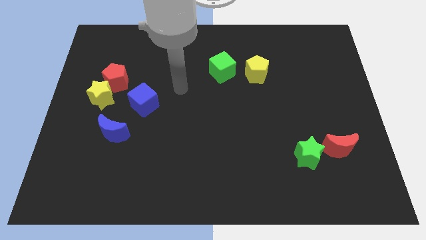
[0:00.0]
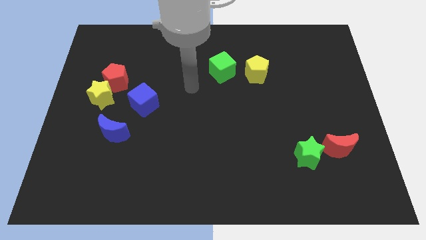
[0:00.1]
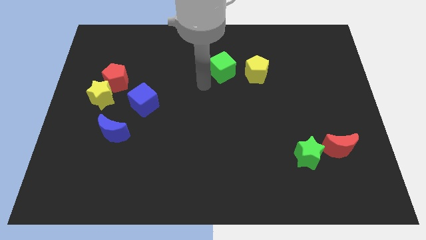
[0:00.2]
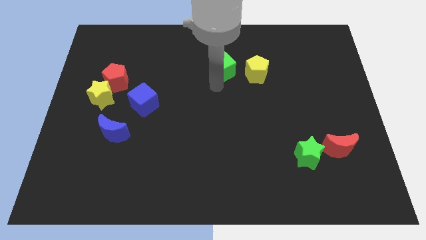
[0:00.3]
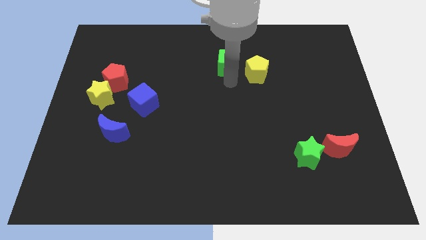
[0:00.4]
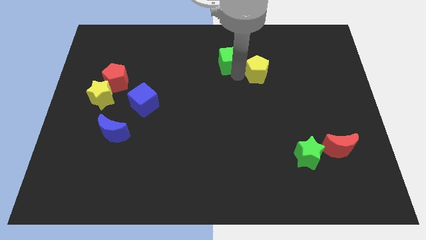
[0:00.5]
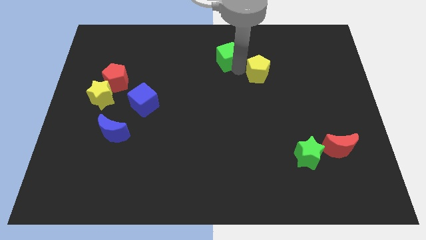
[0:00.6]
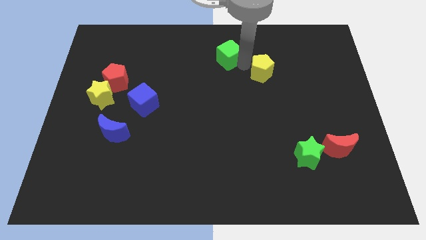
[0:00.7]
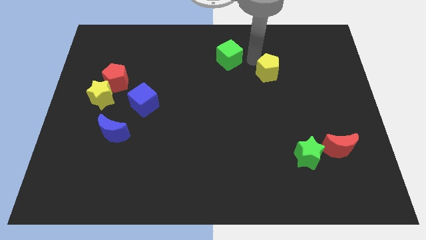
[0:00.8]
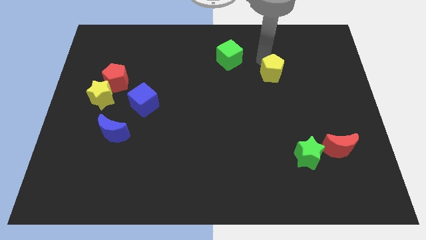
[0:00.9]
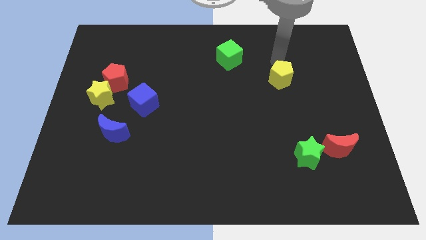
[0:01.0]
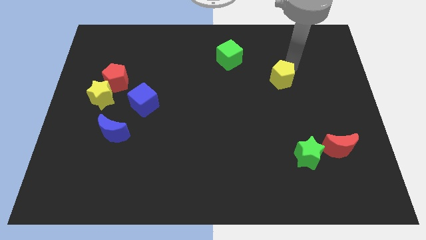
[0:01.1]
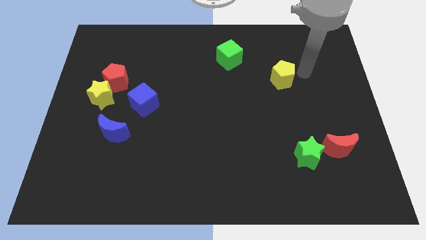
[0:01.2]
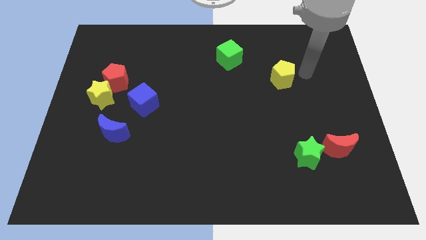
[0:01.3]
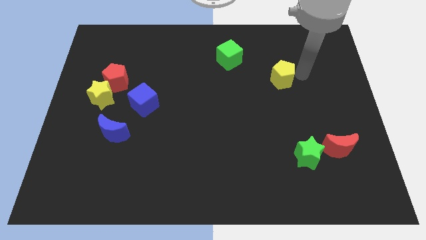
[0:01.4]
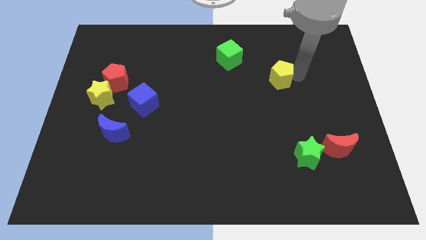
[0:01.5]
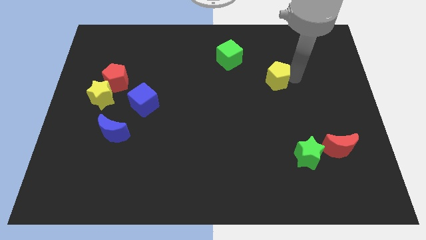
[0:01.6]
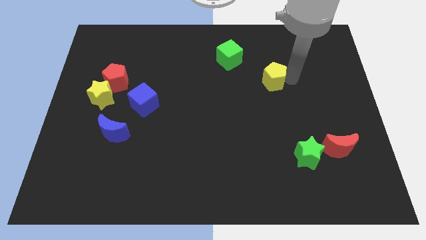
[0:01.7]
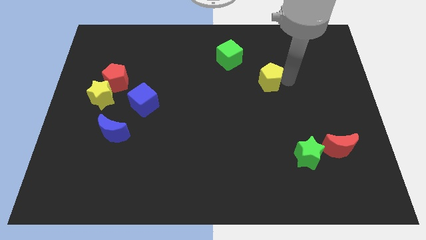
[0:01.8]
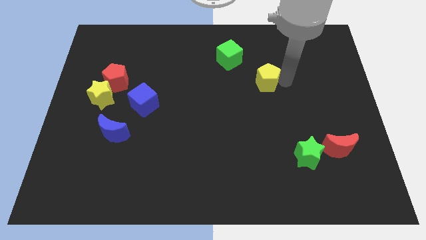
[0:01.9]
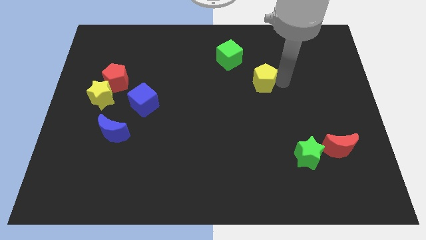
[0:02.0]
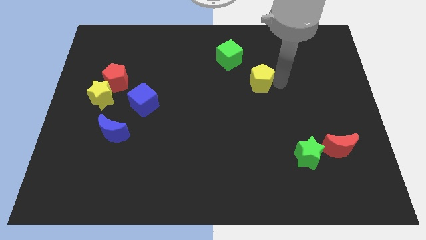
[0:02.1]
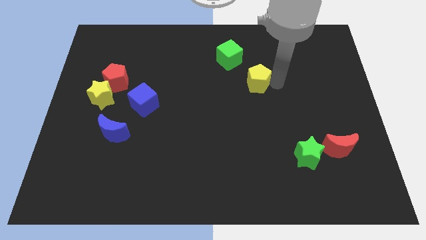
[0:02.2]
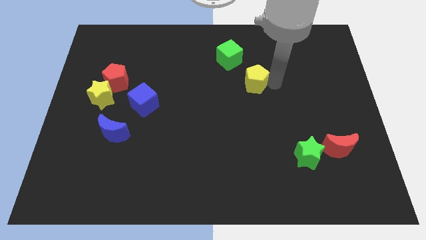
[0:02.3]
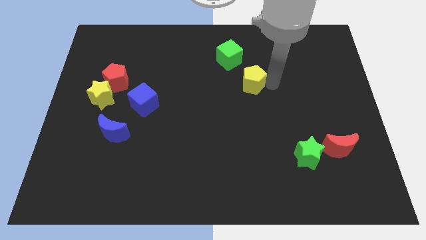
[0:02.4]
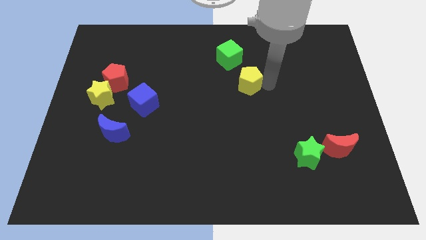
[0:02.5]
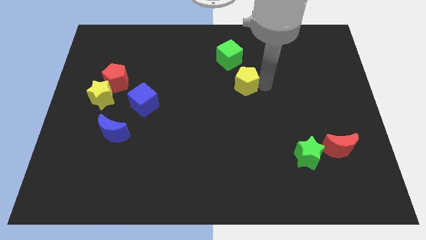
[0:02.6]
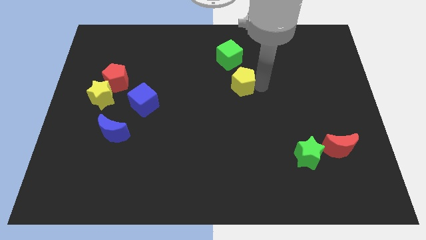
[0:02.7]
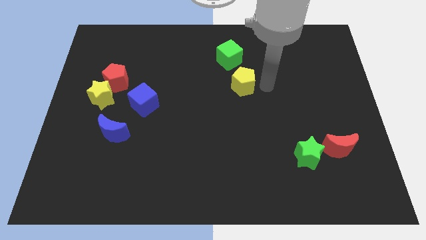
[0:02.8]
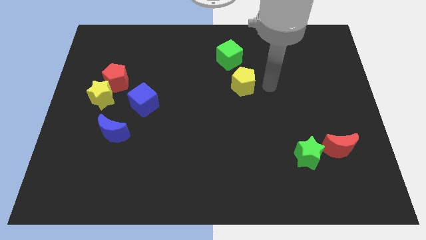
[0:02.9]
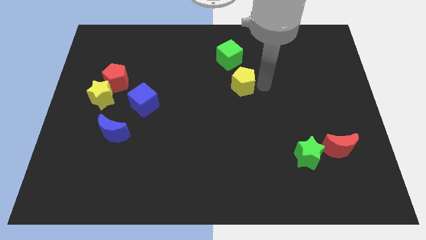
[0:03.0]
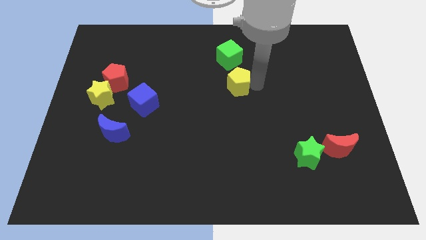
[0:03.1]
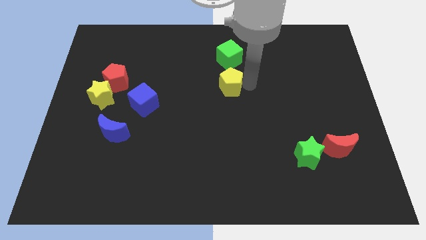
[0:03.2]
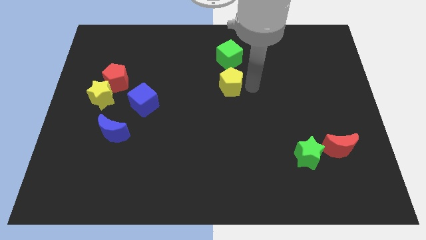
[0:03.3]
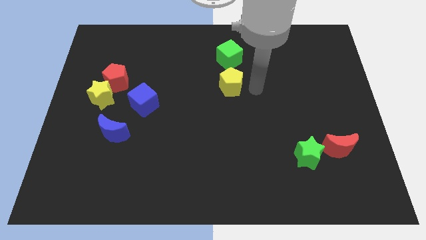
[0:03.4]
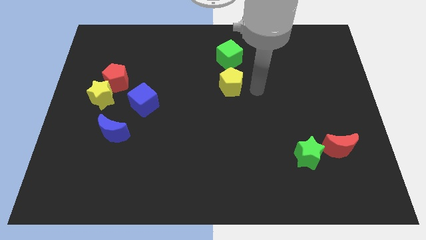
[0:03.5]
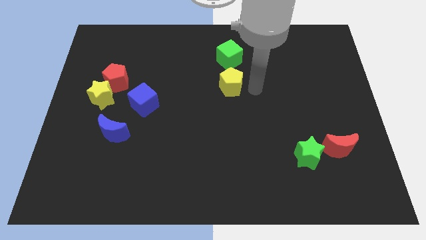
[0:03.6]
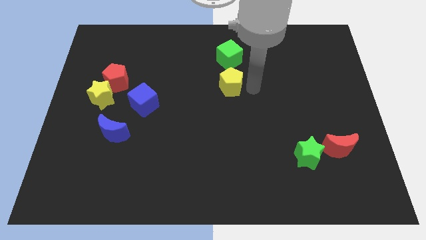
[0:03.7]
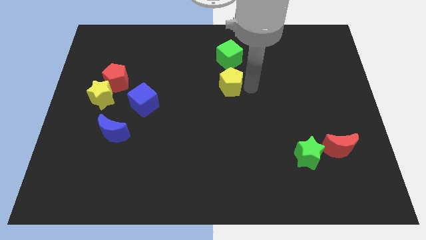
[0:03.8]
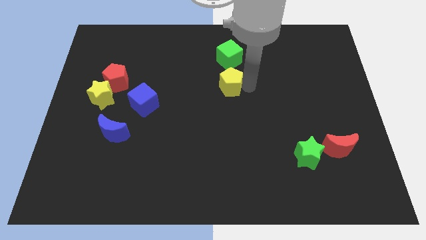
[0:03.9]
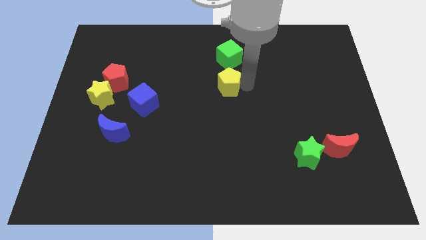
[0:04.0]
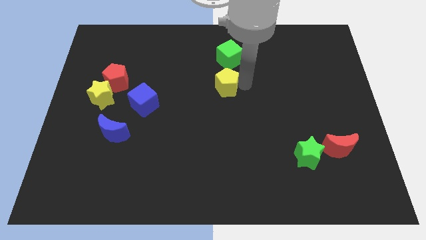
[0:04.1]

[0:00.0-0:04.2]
slide the yellow pentagon to the left a little bit

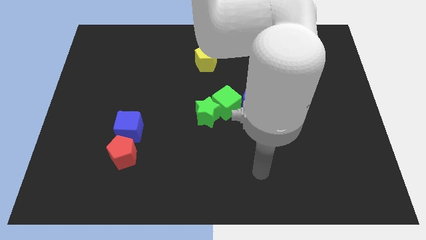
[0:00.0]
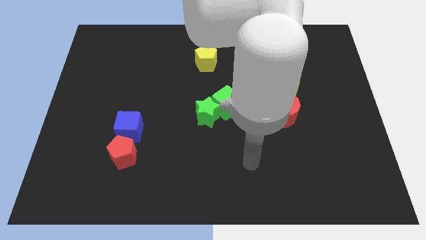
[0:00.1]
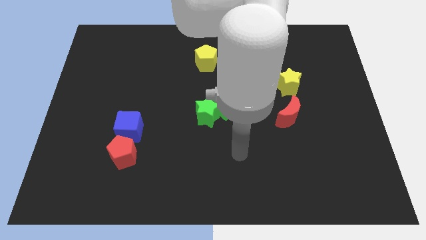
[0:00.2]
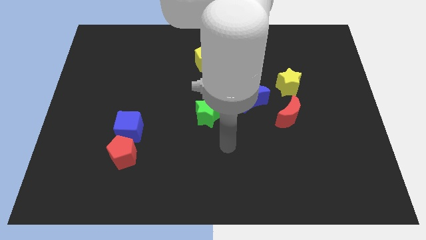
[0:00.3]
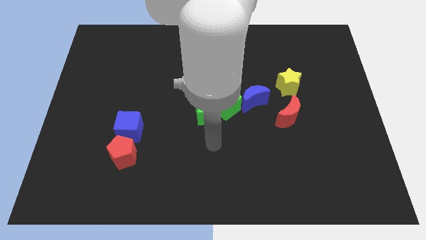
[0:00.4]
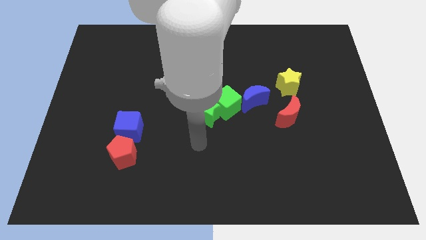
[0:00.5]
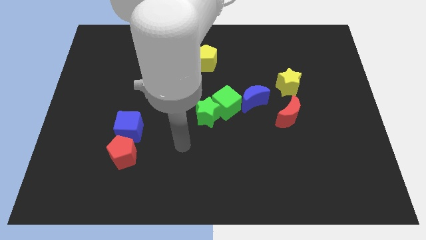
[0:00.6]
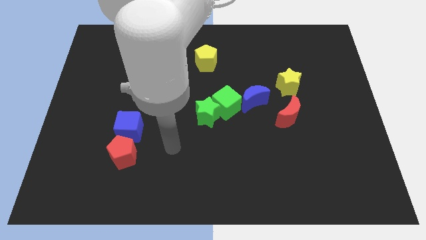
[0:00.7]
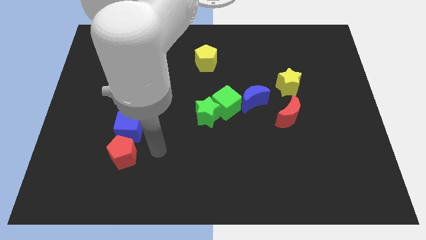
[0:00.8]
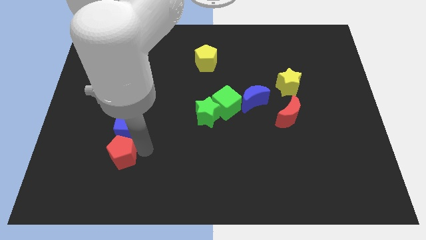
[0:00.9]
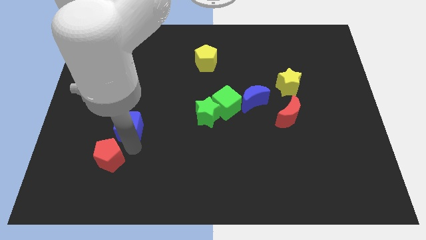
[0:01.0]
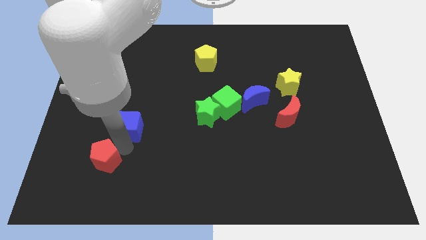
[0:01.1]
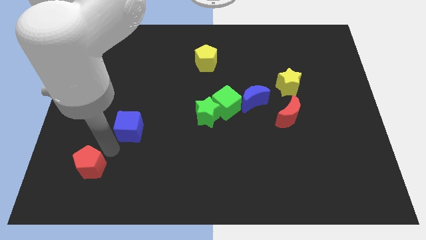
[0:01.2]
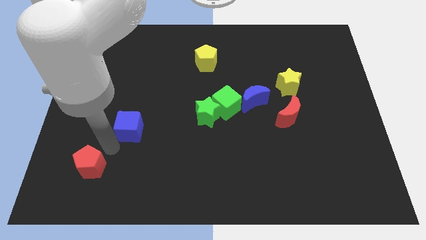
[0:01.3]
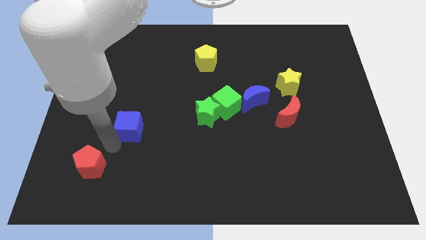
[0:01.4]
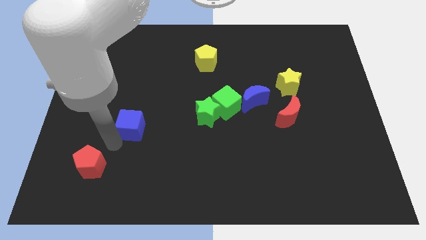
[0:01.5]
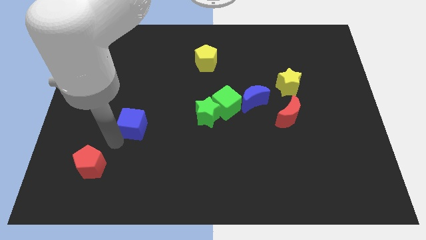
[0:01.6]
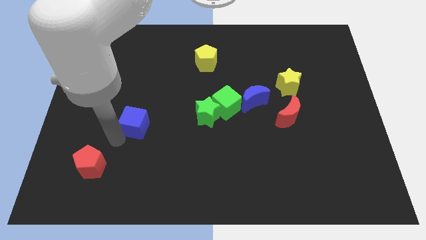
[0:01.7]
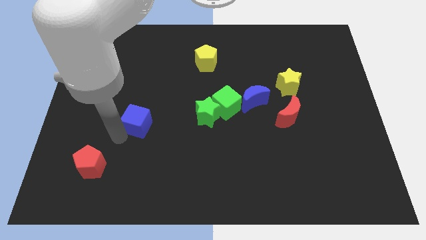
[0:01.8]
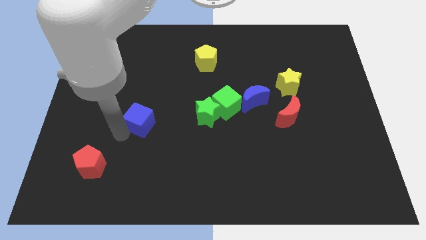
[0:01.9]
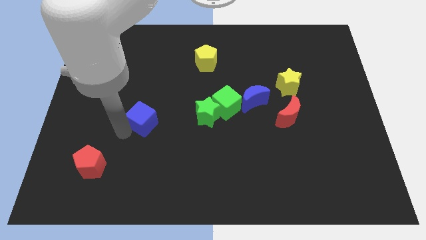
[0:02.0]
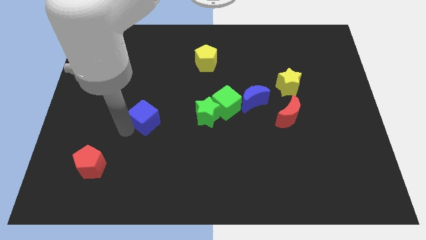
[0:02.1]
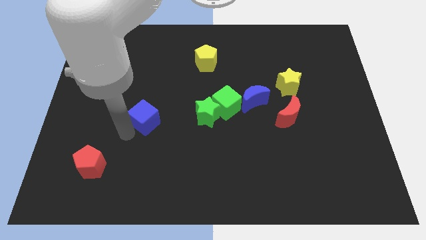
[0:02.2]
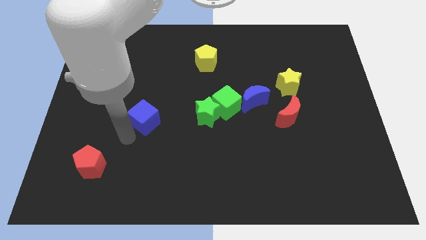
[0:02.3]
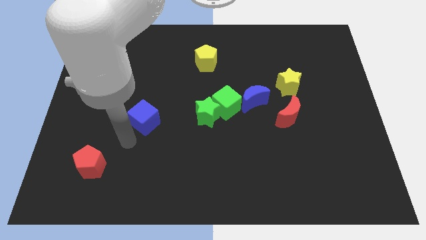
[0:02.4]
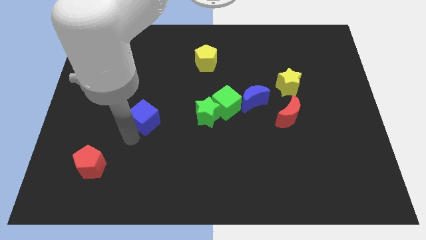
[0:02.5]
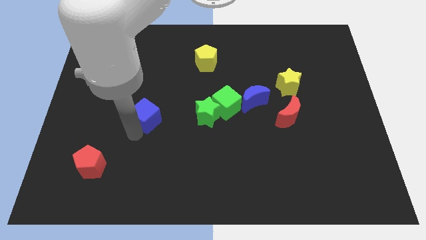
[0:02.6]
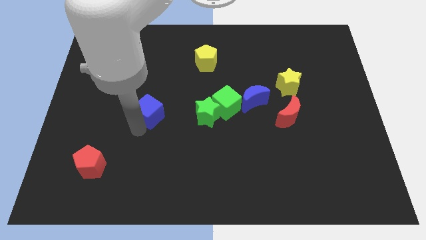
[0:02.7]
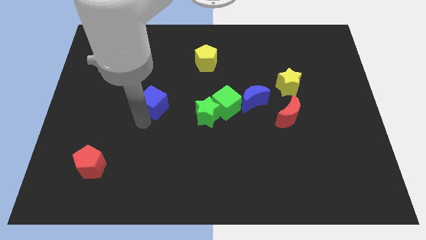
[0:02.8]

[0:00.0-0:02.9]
slightly move the blue cube up and then right

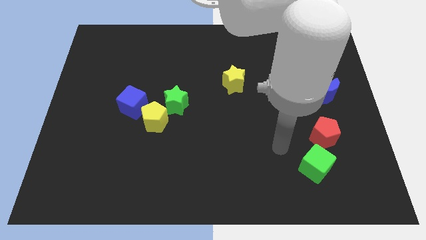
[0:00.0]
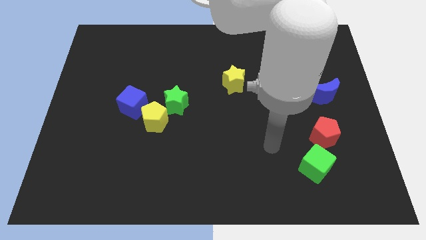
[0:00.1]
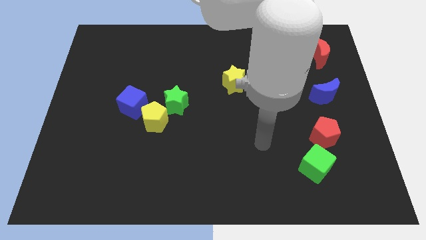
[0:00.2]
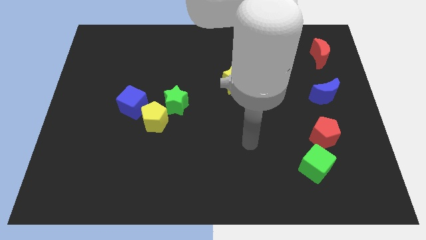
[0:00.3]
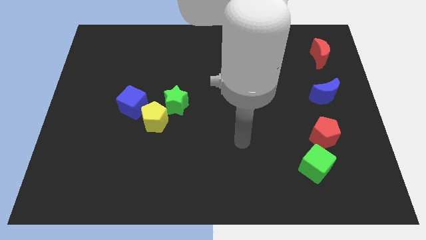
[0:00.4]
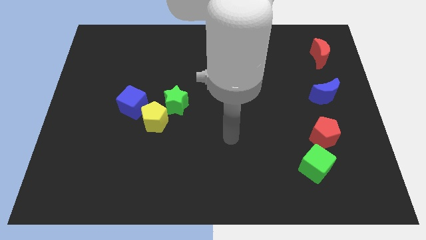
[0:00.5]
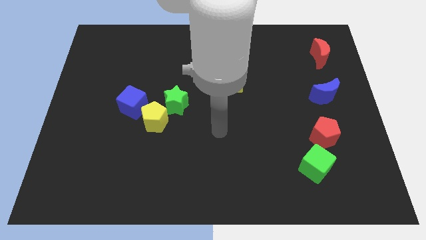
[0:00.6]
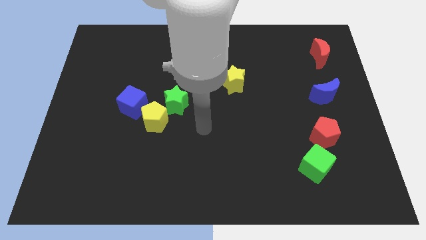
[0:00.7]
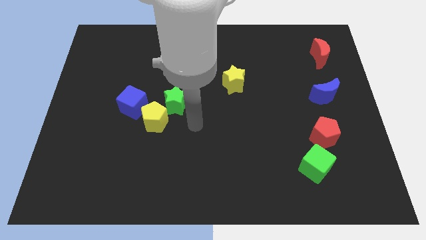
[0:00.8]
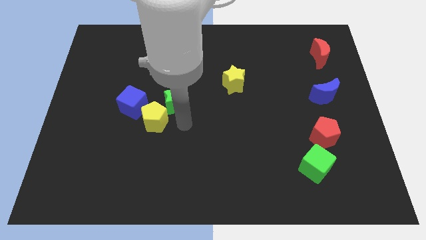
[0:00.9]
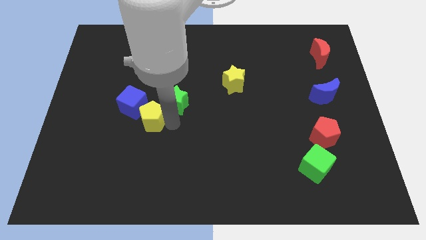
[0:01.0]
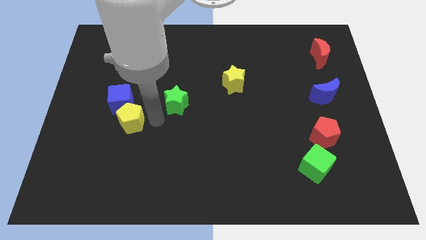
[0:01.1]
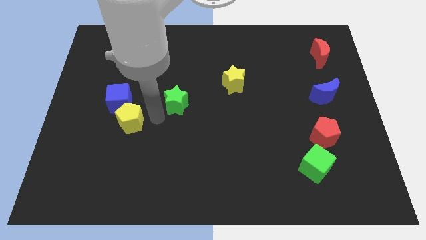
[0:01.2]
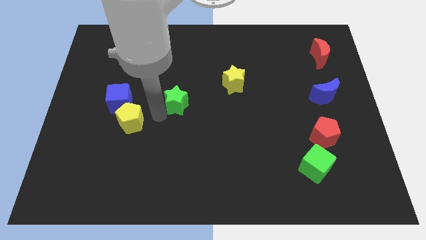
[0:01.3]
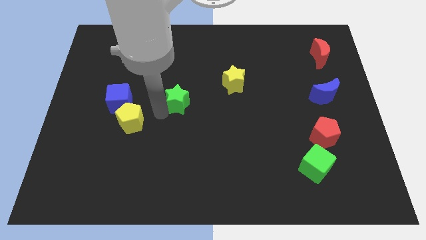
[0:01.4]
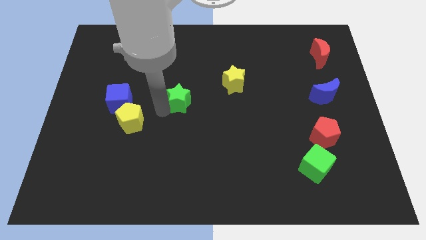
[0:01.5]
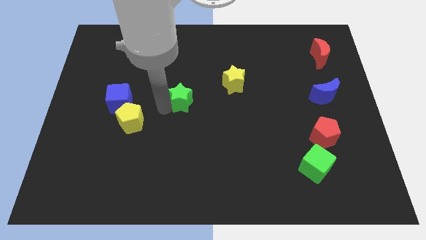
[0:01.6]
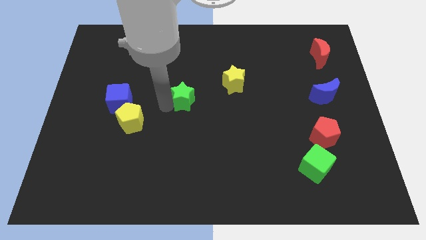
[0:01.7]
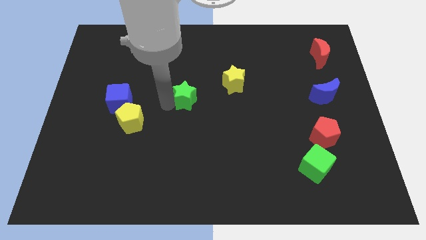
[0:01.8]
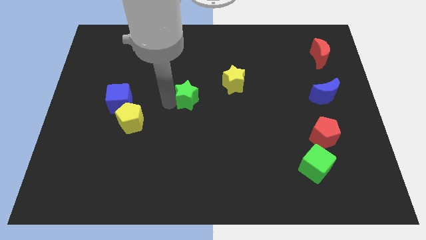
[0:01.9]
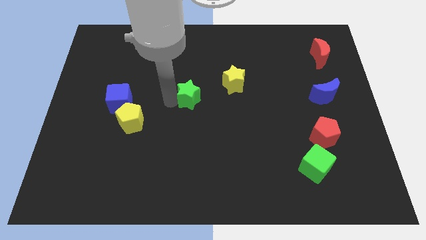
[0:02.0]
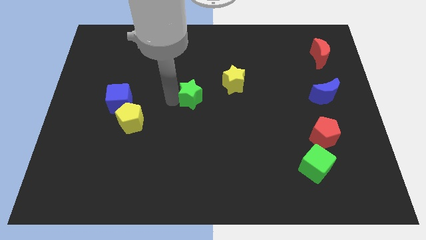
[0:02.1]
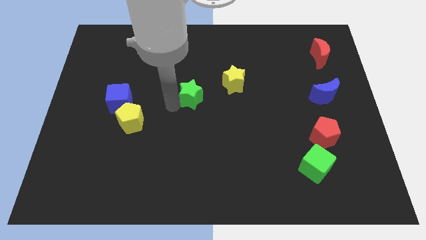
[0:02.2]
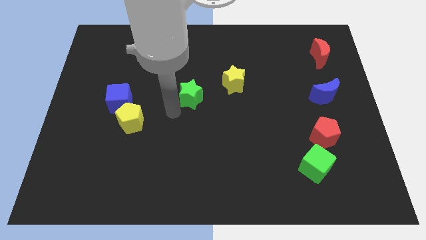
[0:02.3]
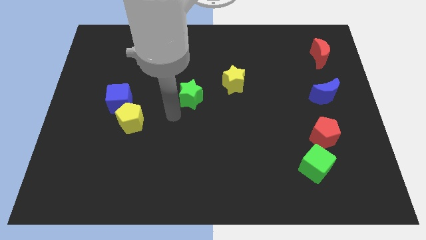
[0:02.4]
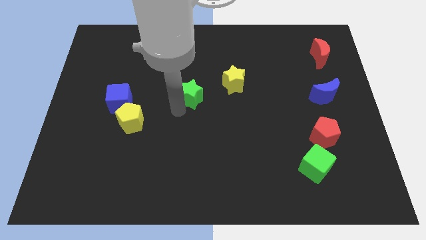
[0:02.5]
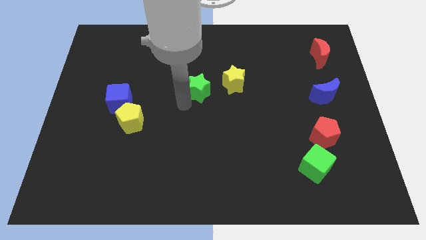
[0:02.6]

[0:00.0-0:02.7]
move the green star diagonally upwards and right a little bit
